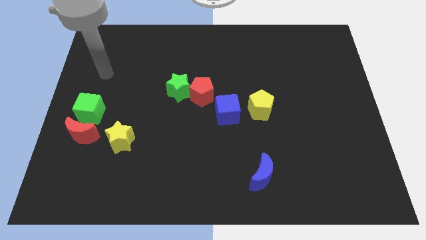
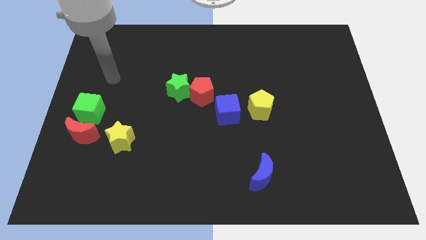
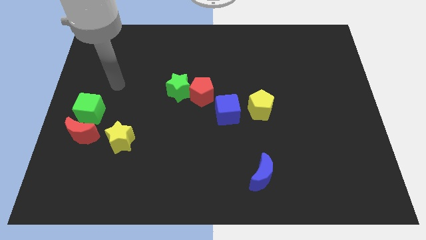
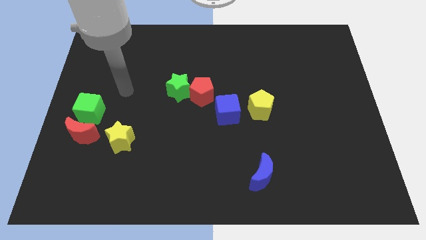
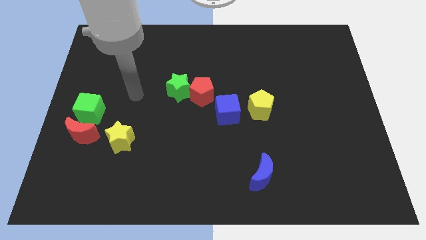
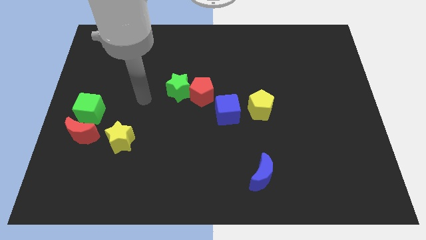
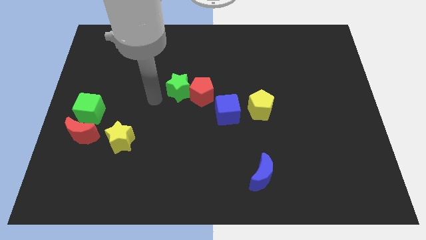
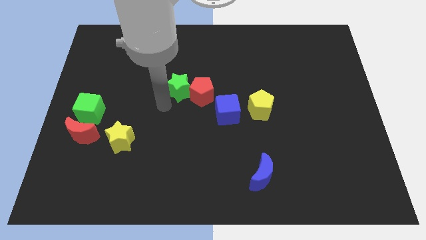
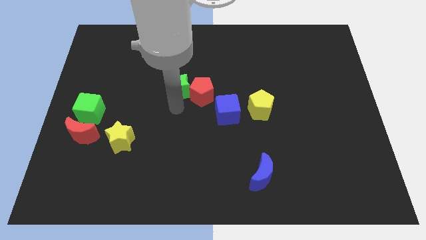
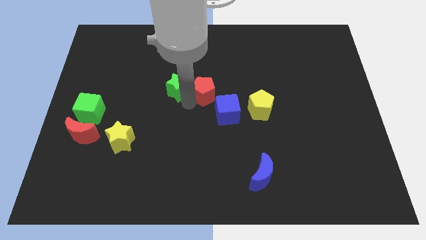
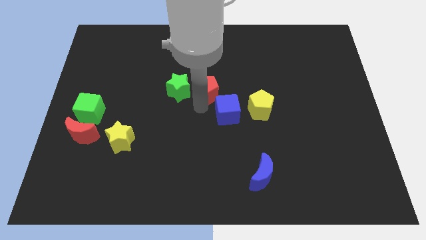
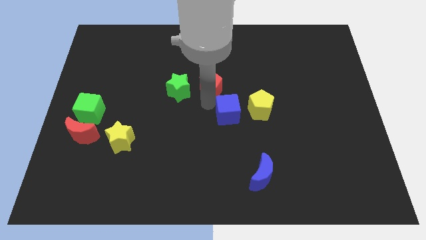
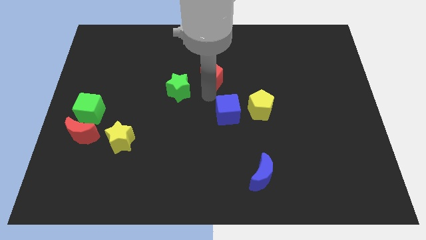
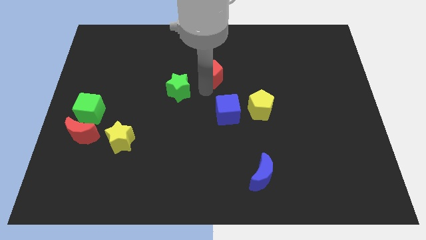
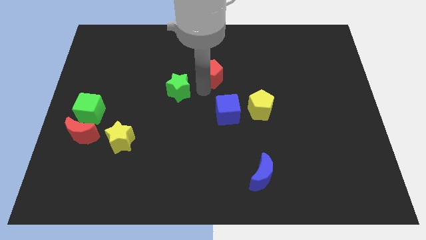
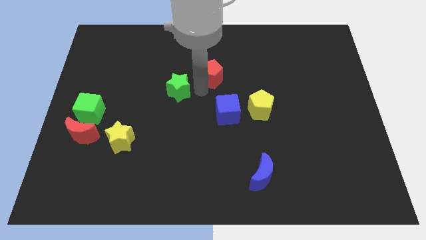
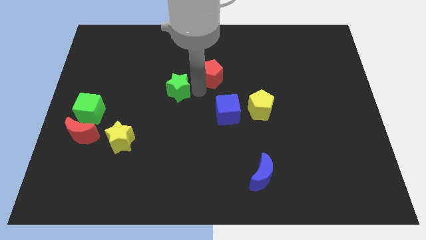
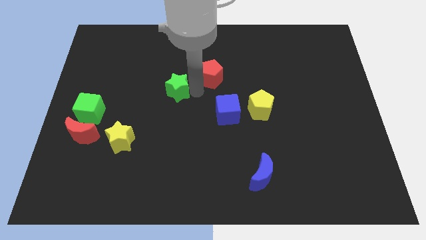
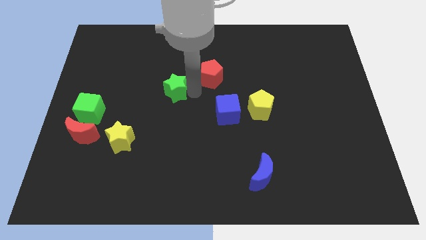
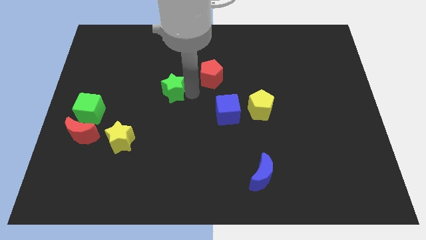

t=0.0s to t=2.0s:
pull the green star apart from the red pentagon

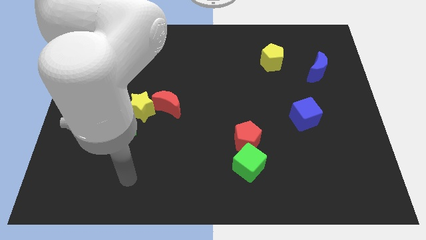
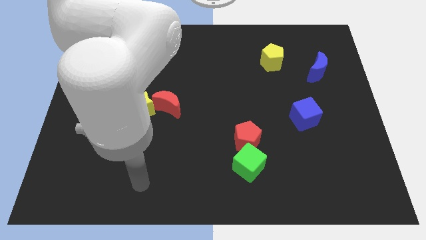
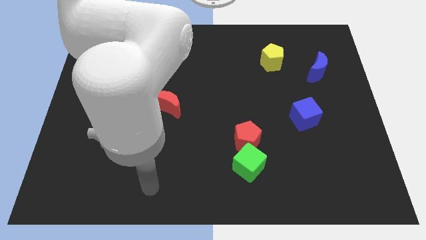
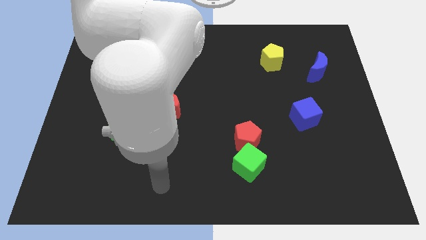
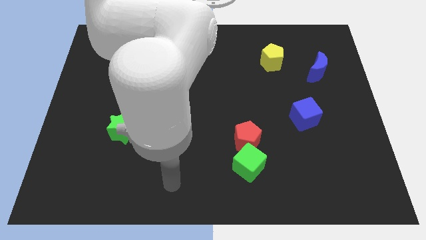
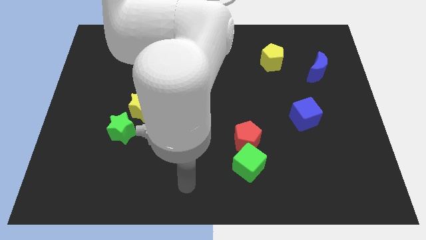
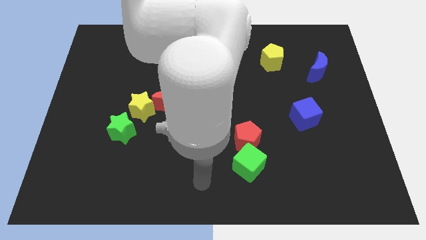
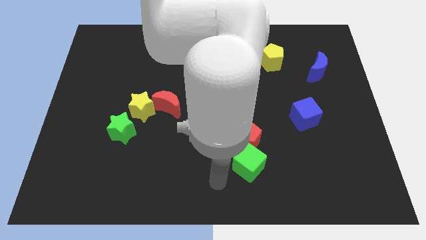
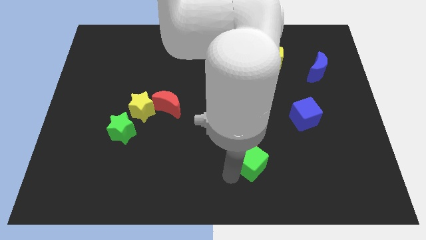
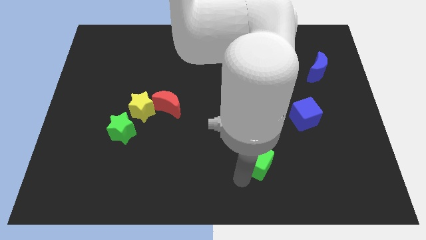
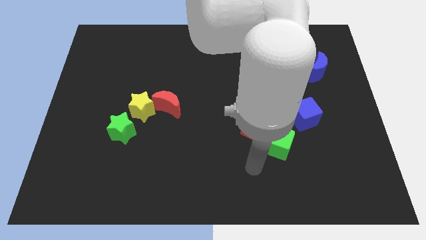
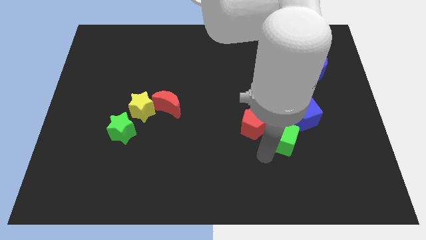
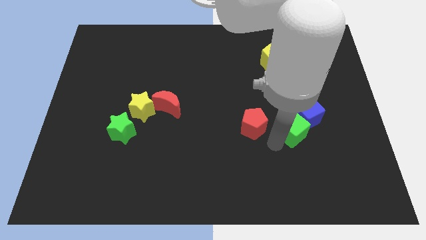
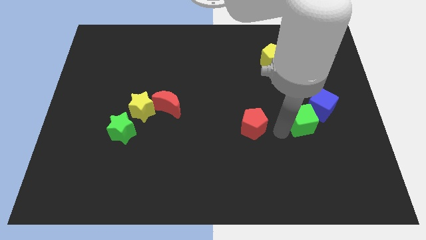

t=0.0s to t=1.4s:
separate the red pentagon from the green cube

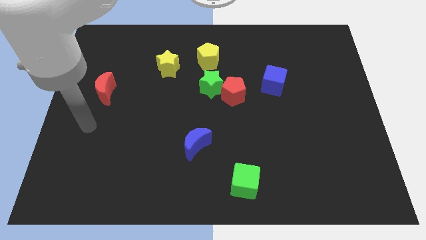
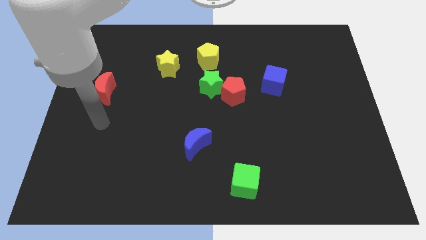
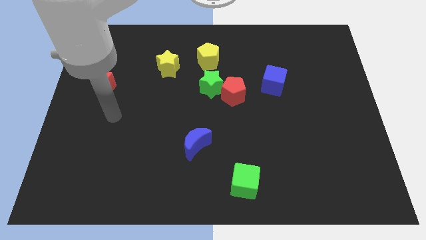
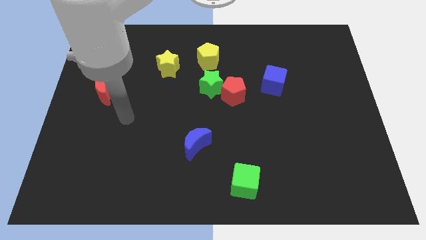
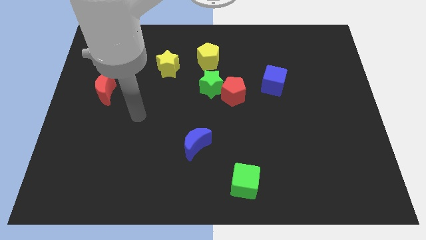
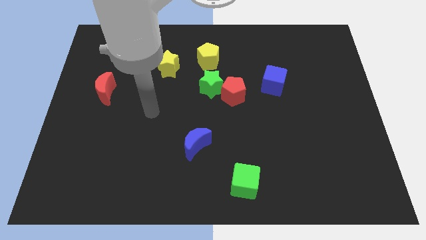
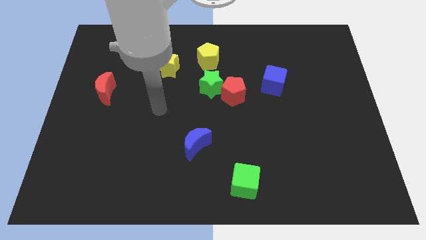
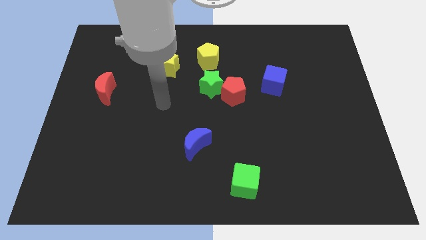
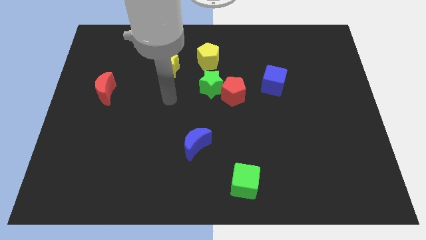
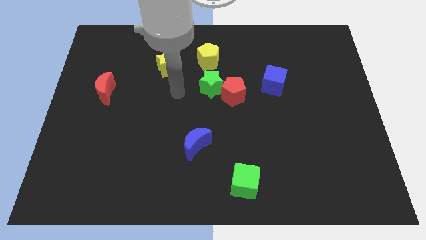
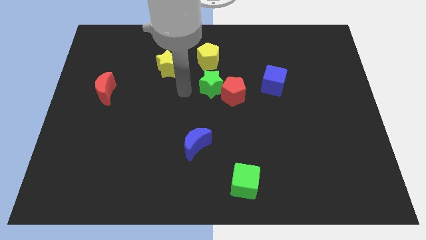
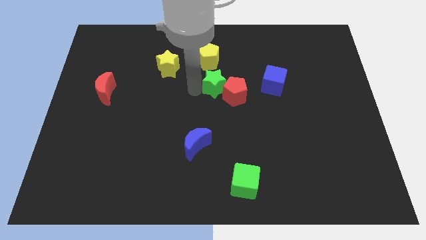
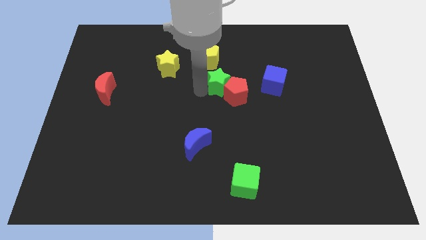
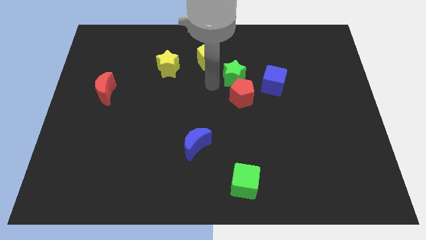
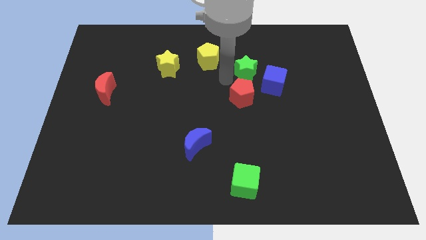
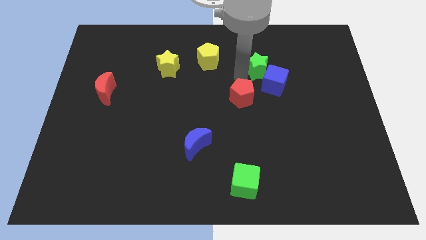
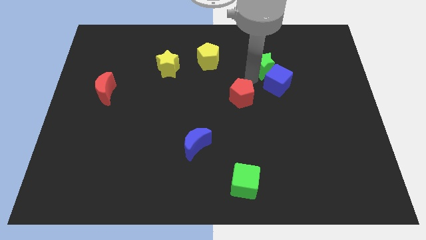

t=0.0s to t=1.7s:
move the red pentagon away from the green star

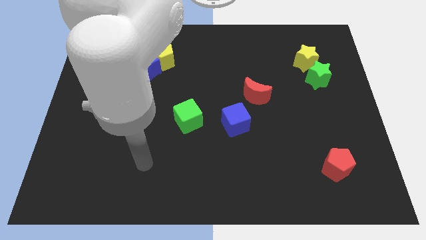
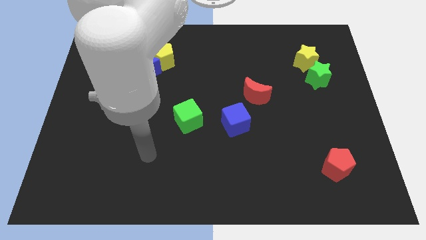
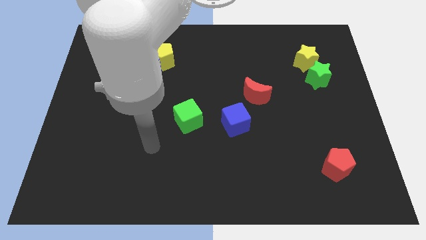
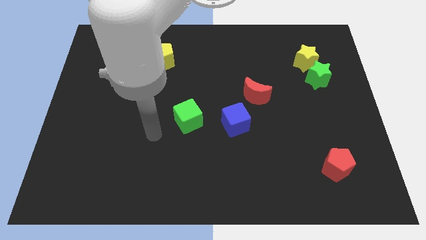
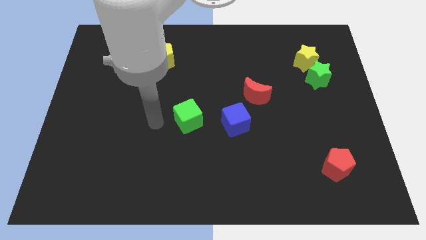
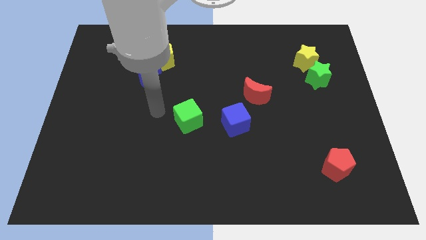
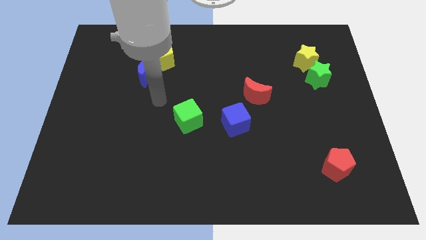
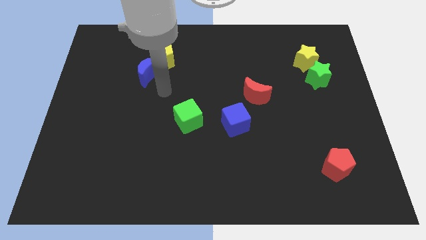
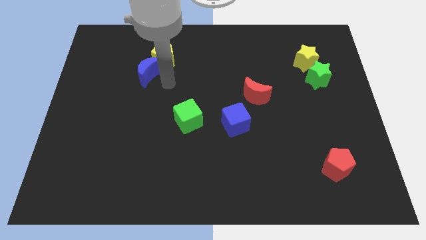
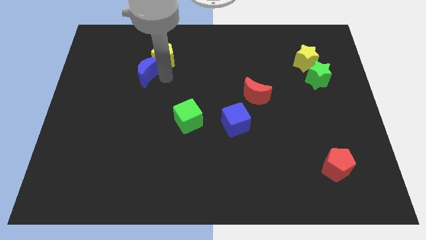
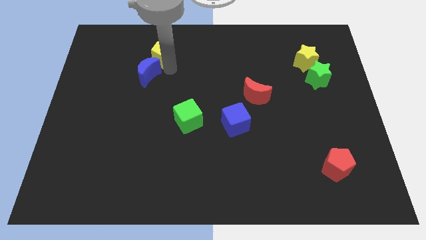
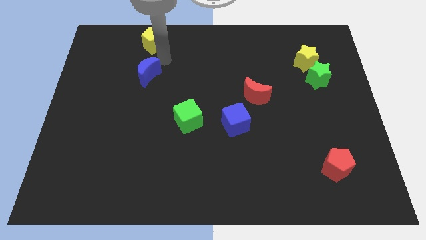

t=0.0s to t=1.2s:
move the blue moon away from the yellow pentagon

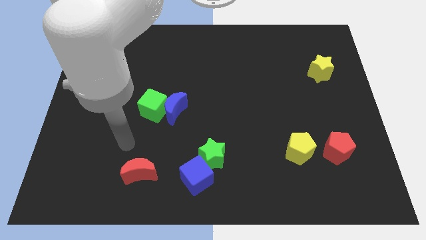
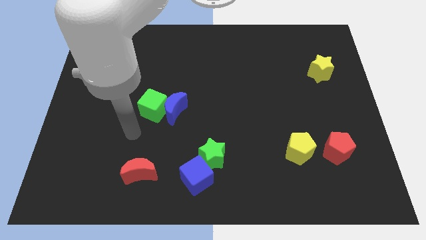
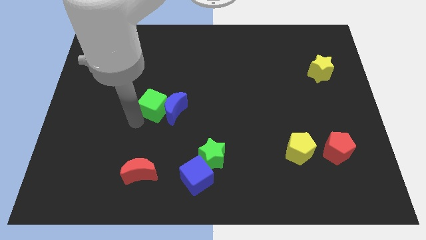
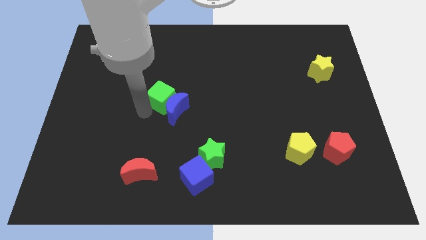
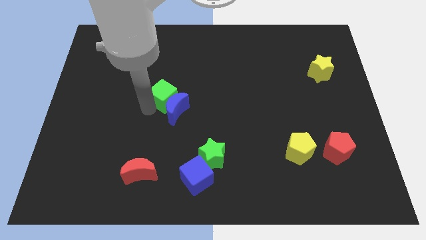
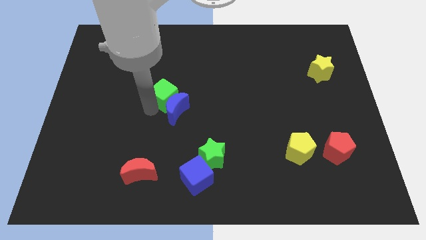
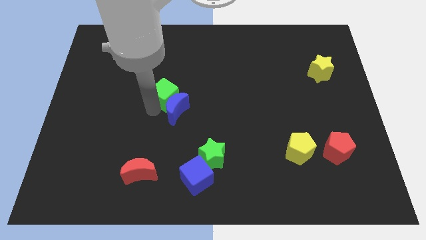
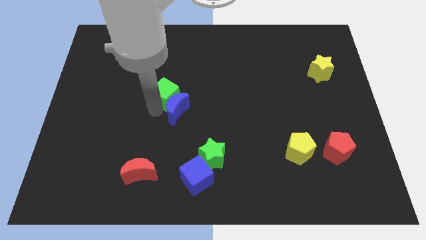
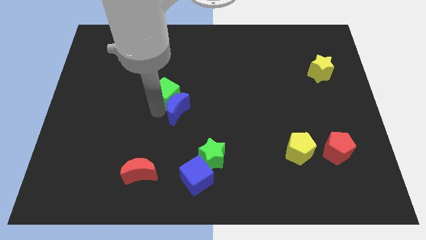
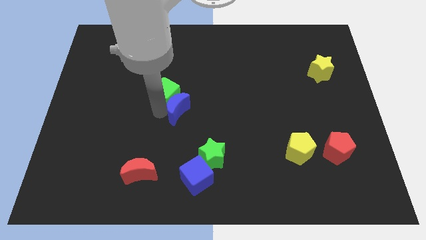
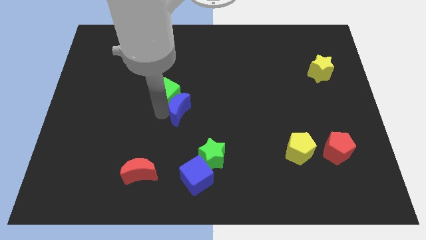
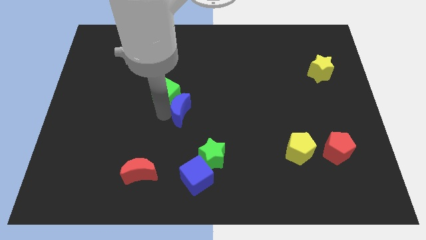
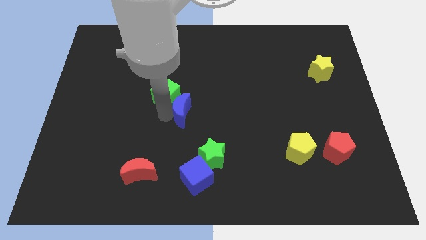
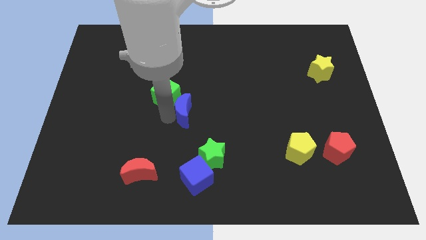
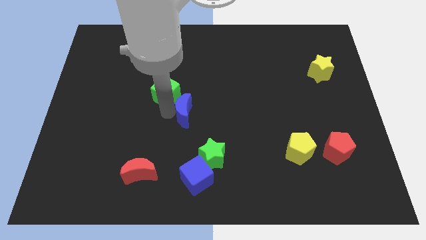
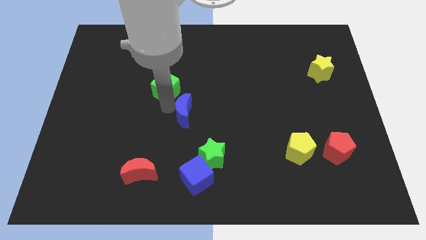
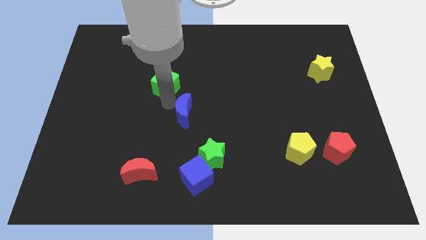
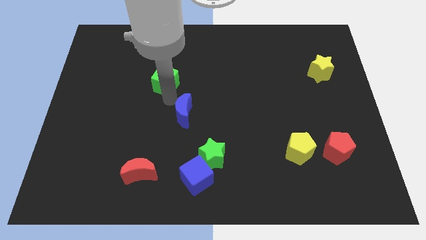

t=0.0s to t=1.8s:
separate the blue moon from the green cube

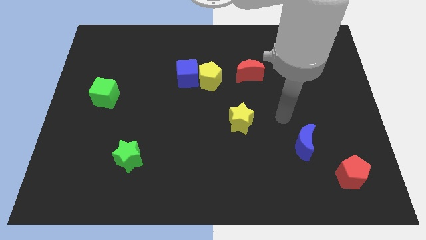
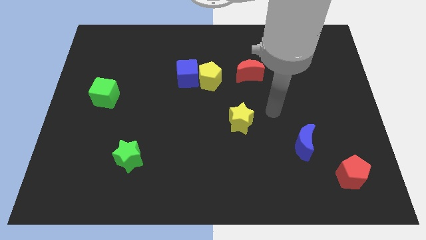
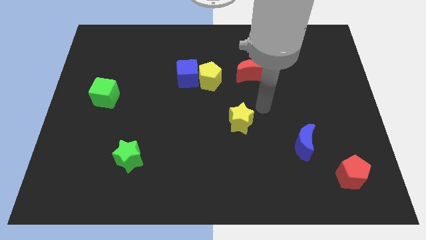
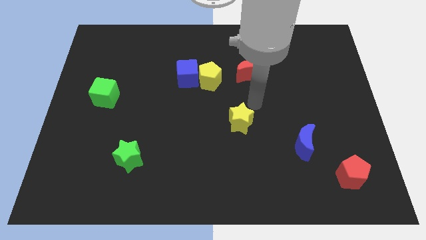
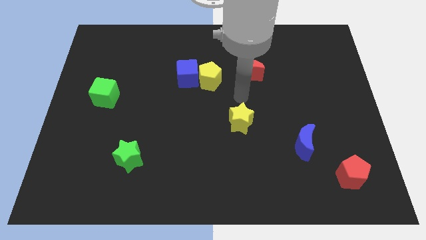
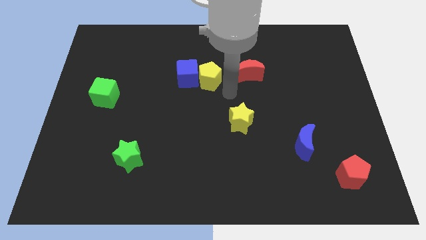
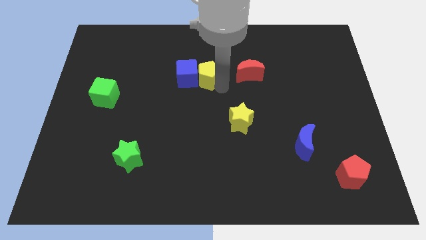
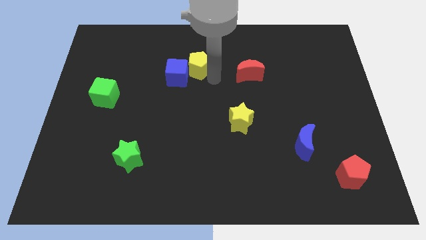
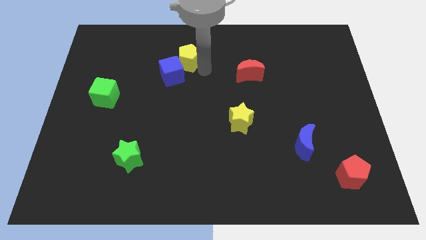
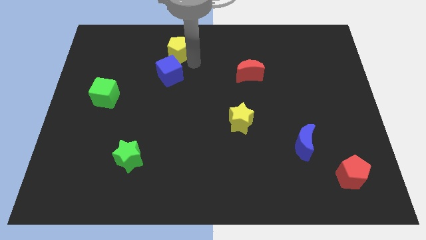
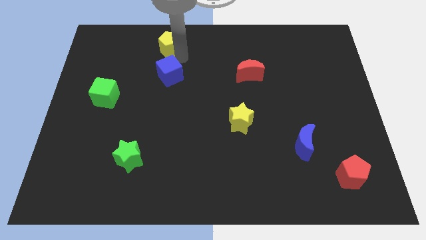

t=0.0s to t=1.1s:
separate the blue cube from the yellow pentagon
